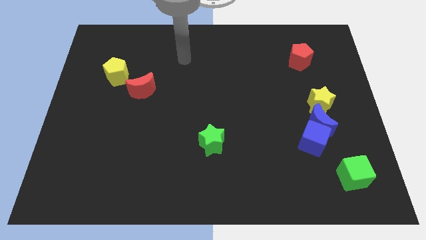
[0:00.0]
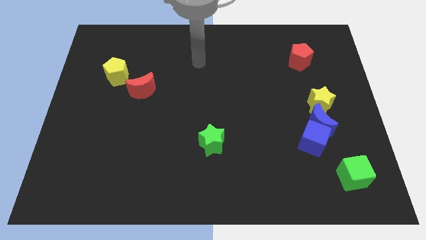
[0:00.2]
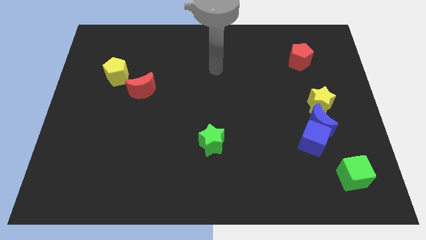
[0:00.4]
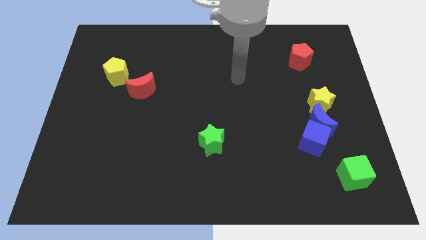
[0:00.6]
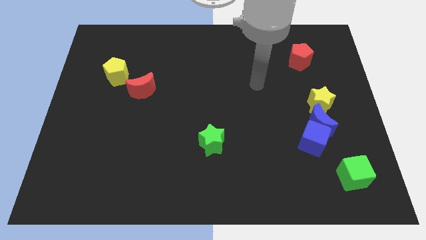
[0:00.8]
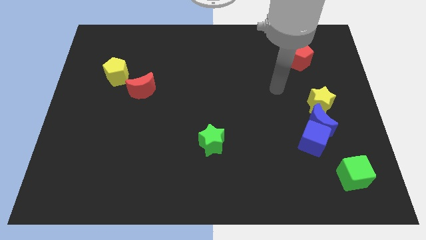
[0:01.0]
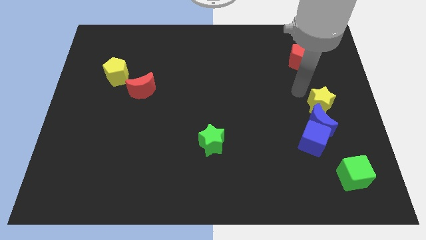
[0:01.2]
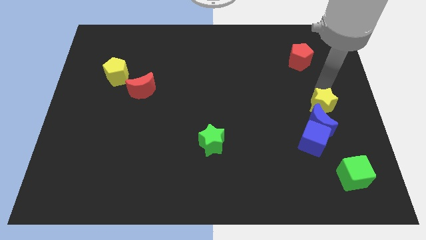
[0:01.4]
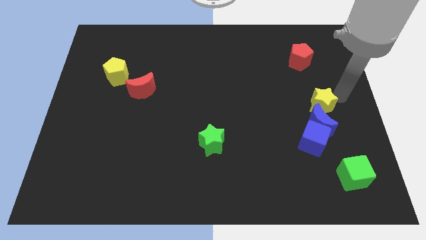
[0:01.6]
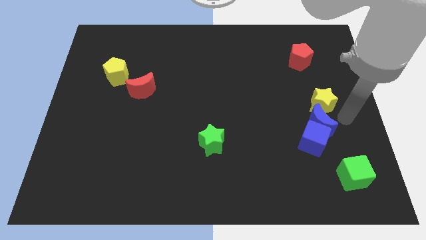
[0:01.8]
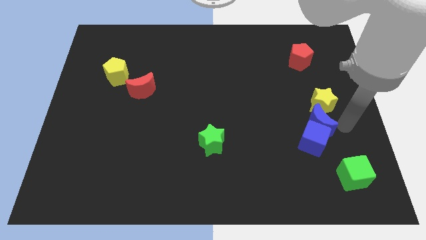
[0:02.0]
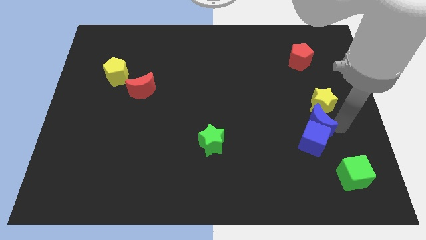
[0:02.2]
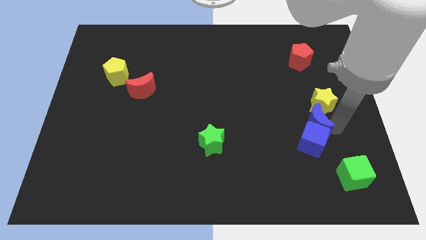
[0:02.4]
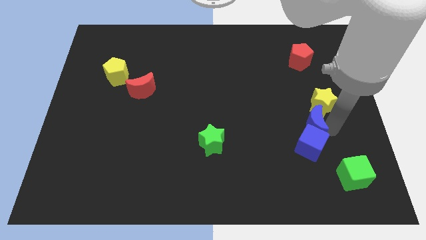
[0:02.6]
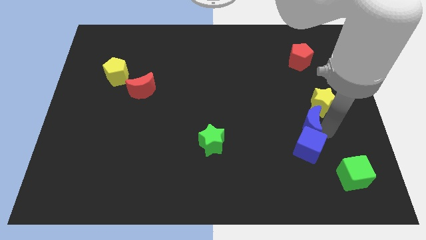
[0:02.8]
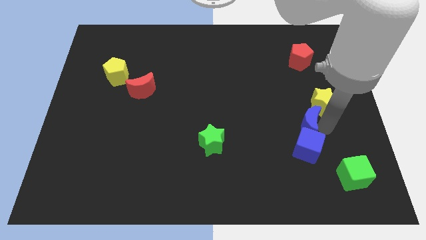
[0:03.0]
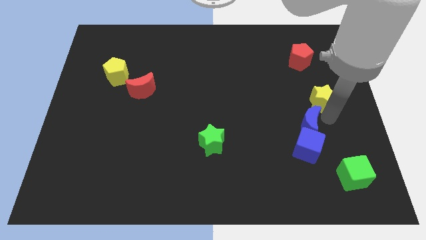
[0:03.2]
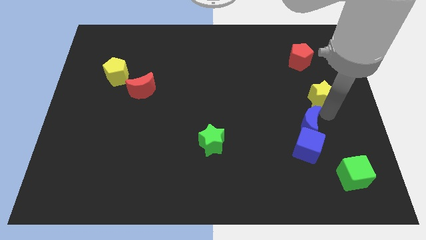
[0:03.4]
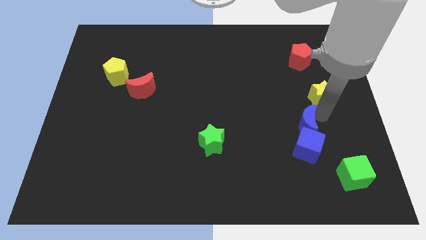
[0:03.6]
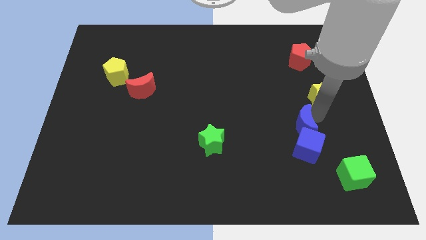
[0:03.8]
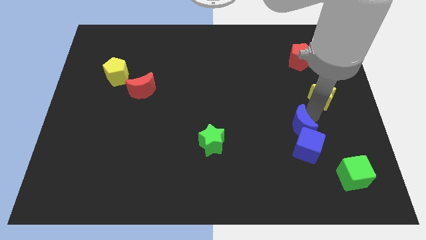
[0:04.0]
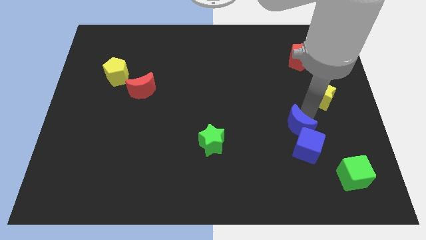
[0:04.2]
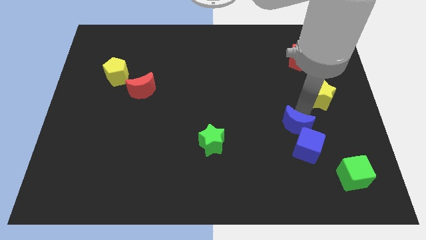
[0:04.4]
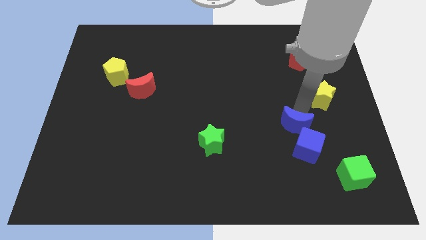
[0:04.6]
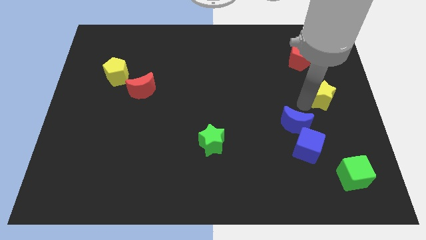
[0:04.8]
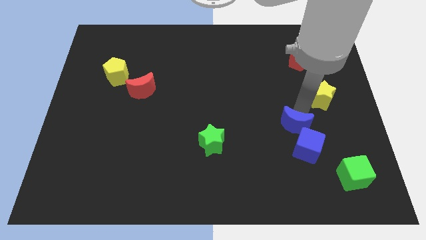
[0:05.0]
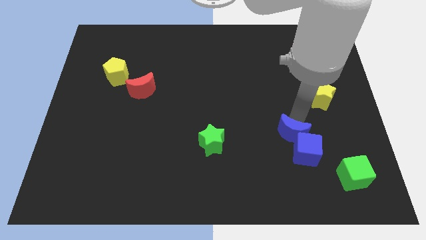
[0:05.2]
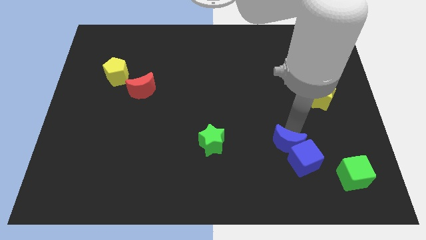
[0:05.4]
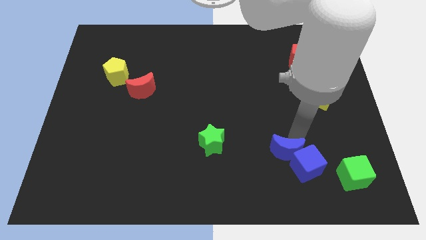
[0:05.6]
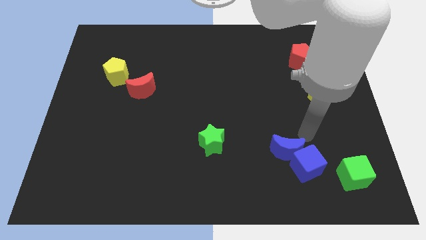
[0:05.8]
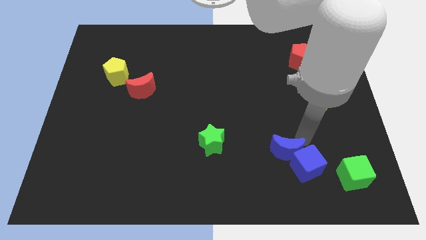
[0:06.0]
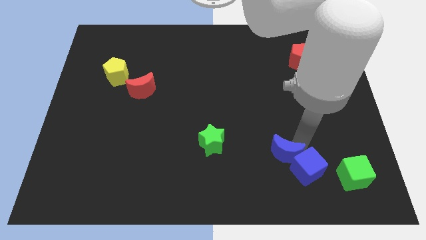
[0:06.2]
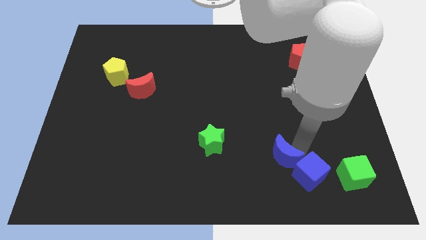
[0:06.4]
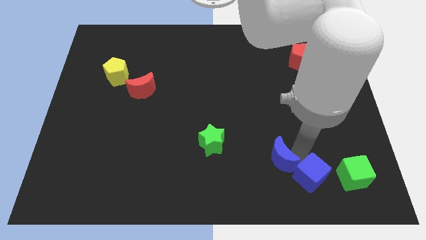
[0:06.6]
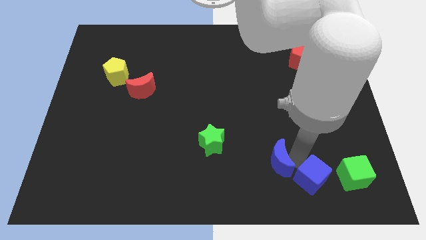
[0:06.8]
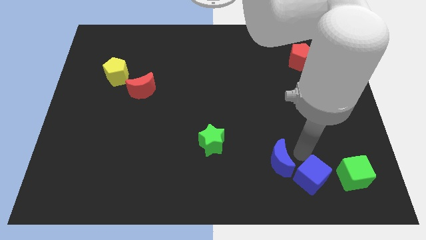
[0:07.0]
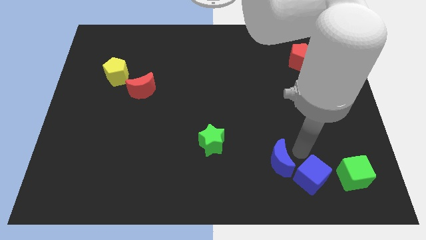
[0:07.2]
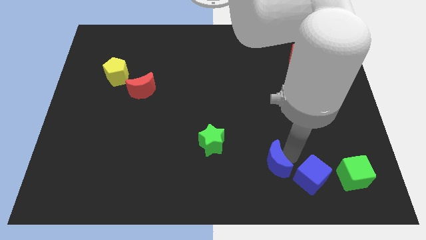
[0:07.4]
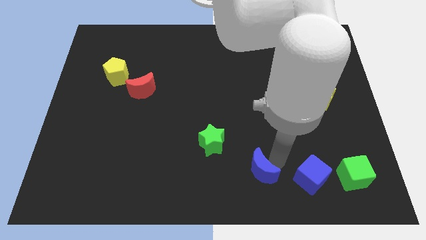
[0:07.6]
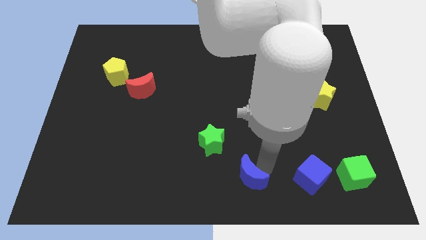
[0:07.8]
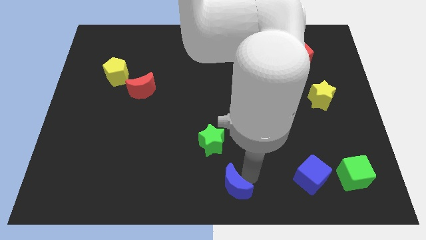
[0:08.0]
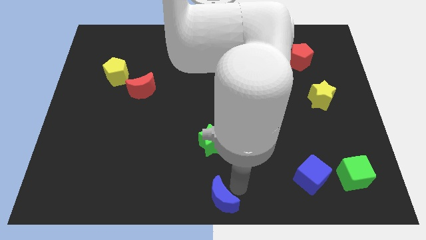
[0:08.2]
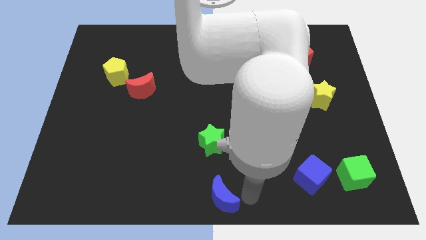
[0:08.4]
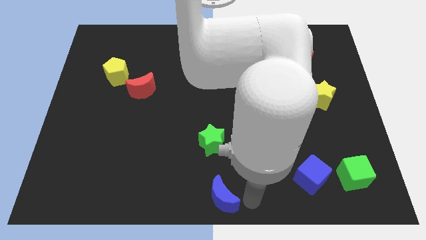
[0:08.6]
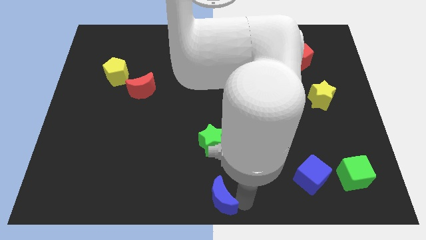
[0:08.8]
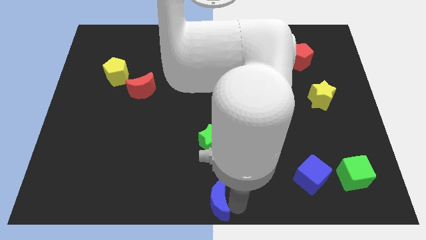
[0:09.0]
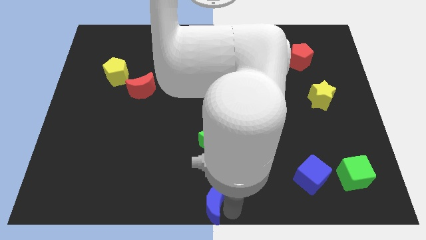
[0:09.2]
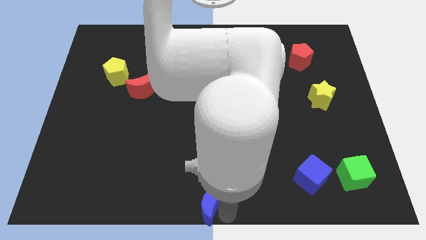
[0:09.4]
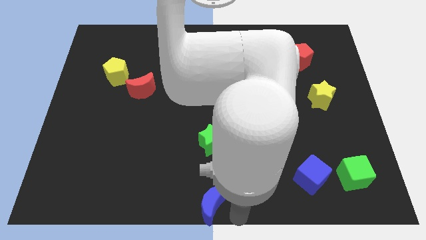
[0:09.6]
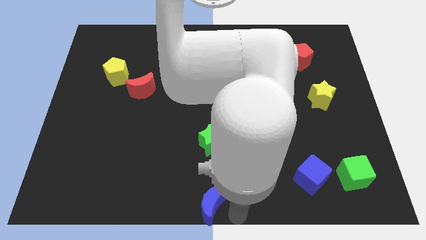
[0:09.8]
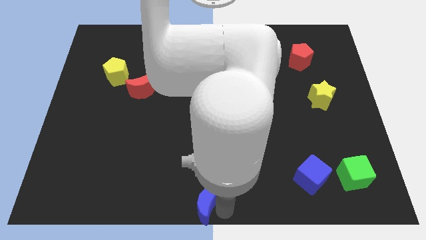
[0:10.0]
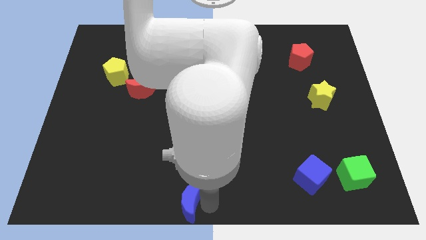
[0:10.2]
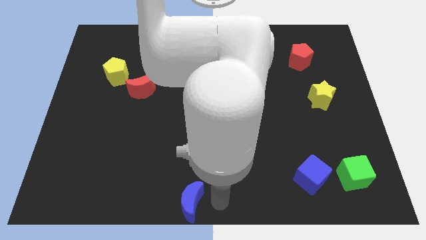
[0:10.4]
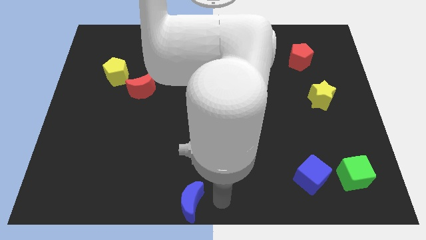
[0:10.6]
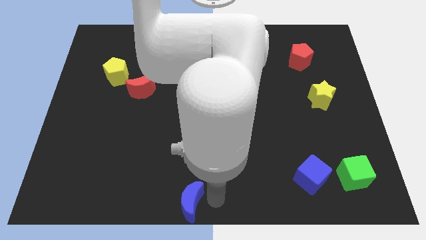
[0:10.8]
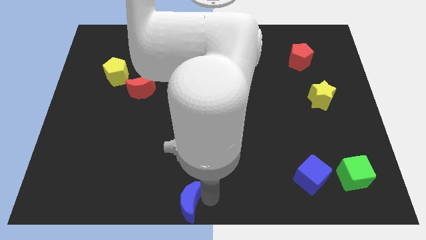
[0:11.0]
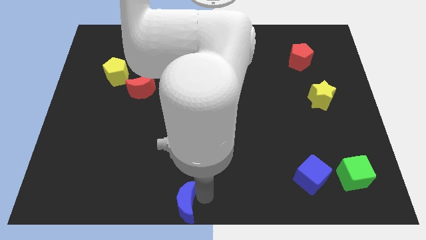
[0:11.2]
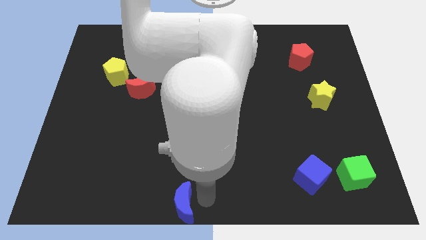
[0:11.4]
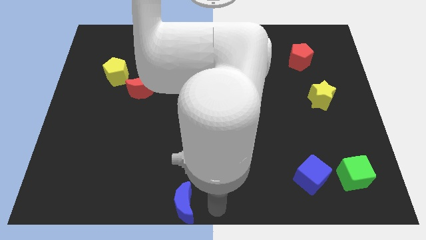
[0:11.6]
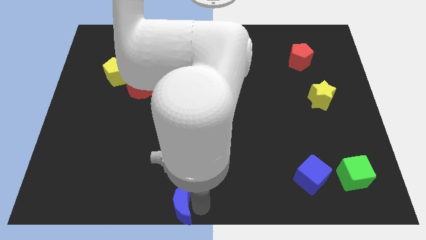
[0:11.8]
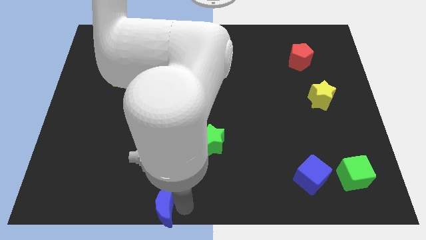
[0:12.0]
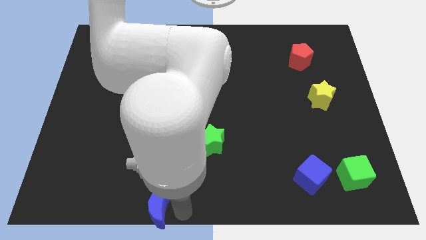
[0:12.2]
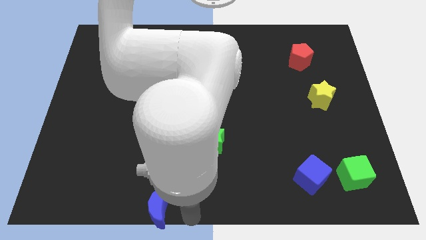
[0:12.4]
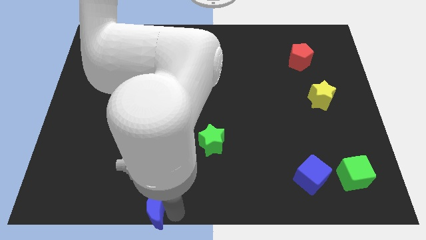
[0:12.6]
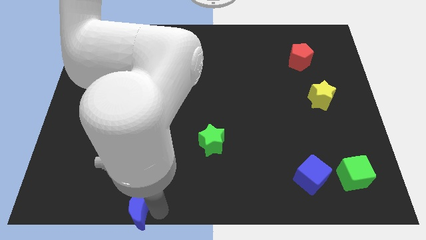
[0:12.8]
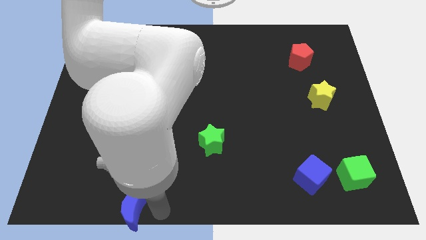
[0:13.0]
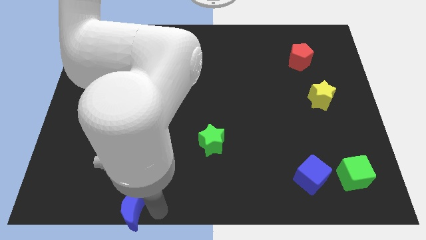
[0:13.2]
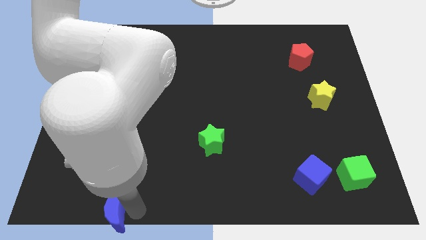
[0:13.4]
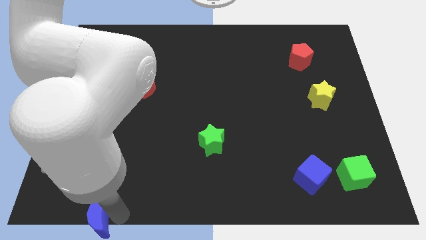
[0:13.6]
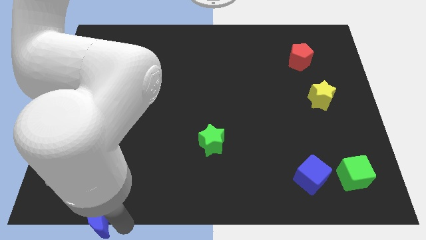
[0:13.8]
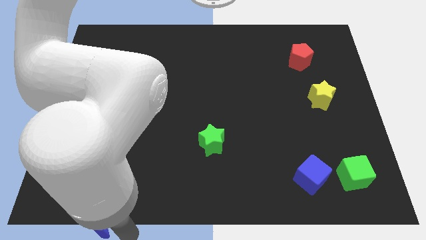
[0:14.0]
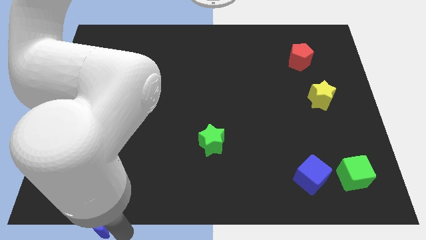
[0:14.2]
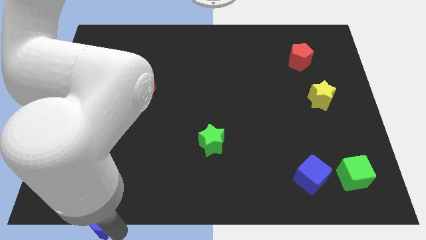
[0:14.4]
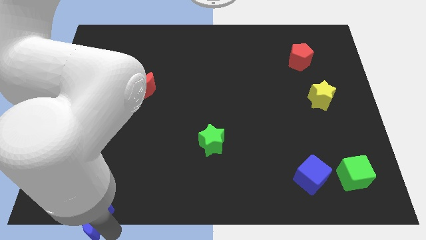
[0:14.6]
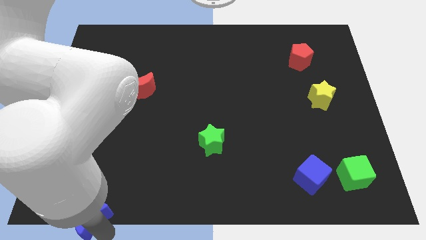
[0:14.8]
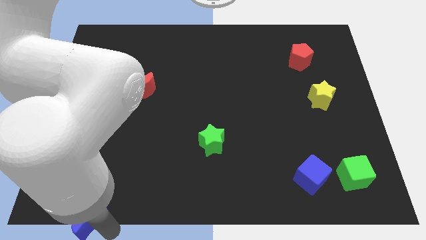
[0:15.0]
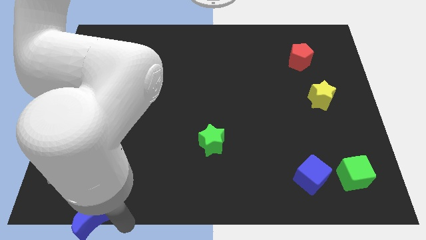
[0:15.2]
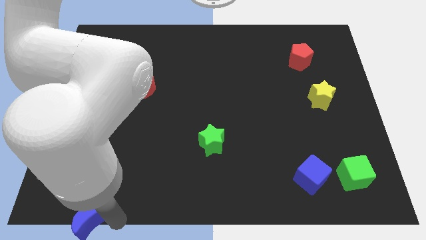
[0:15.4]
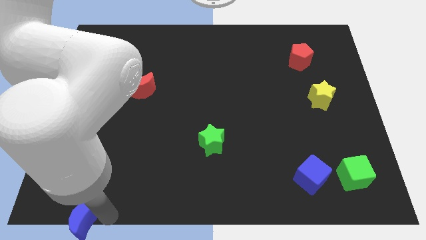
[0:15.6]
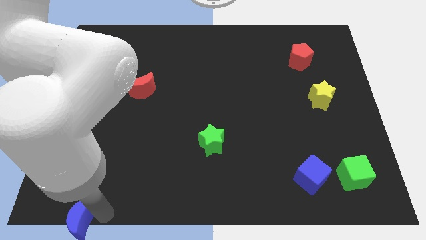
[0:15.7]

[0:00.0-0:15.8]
put the blue moon to the lower left corner
